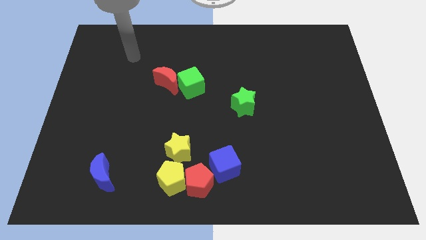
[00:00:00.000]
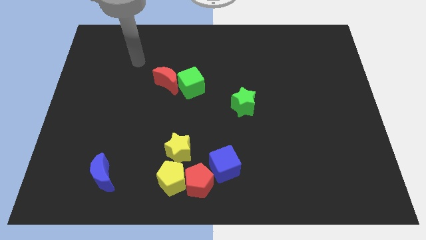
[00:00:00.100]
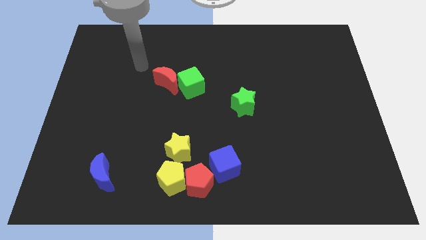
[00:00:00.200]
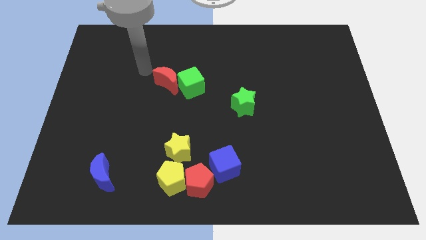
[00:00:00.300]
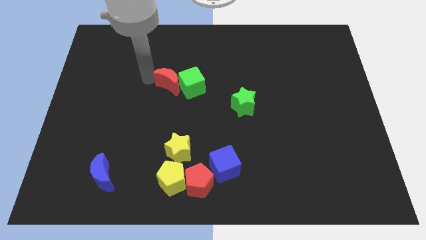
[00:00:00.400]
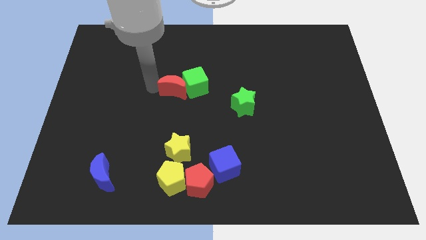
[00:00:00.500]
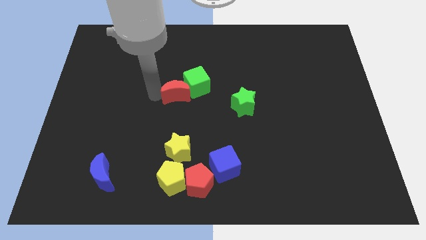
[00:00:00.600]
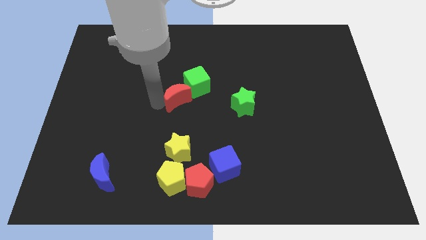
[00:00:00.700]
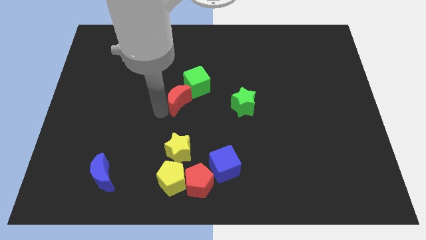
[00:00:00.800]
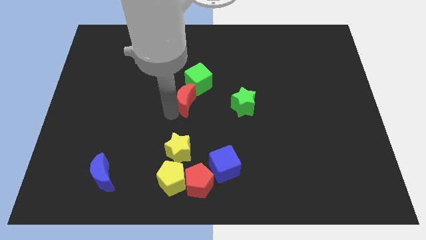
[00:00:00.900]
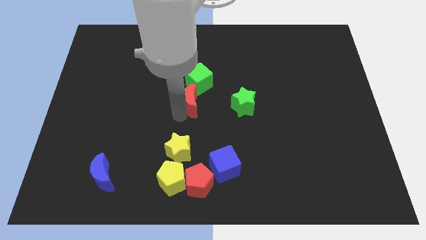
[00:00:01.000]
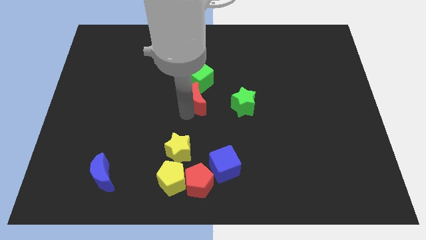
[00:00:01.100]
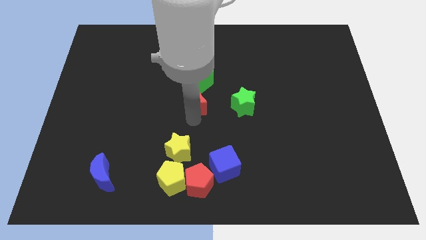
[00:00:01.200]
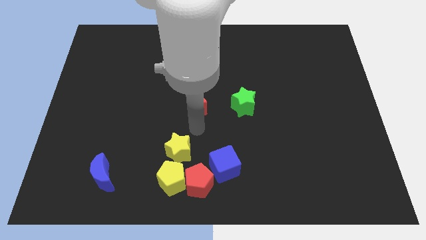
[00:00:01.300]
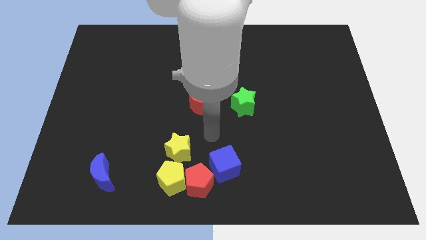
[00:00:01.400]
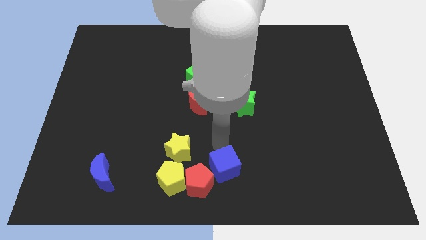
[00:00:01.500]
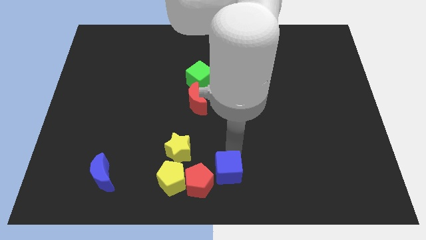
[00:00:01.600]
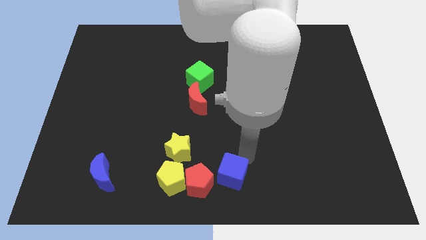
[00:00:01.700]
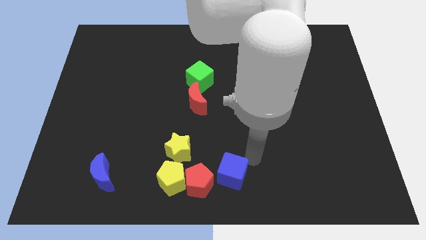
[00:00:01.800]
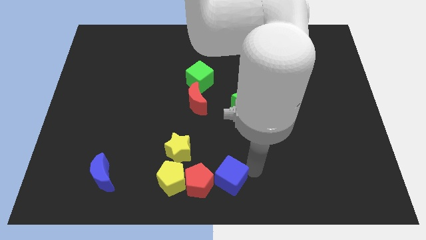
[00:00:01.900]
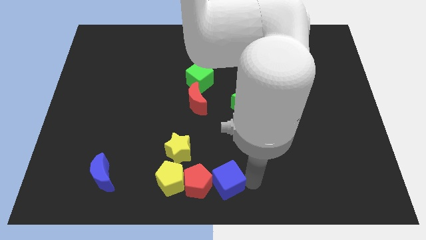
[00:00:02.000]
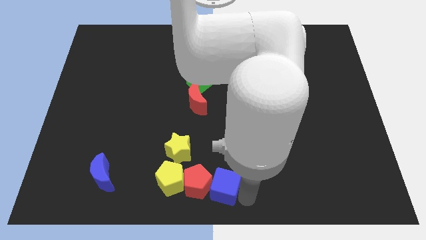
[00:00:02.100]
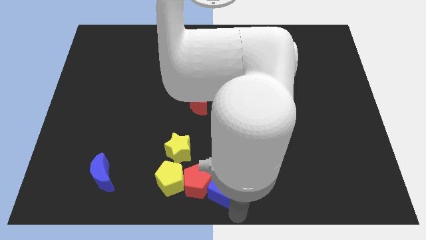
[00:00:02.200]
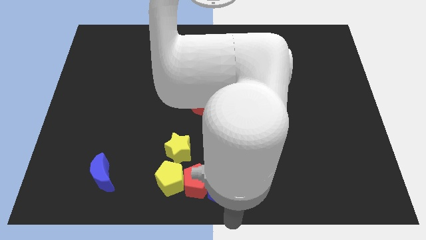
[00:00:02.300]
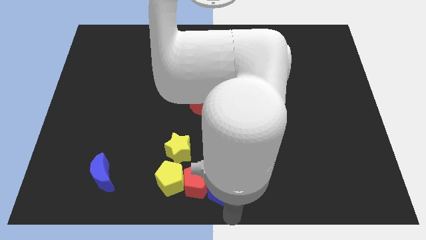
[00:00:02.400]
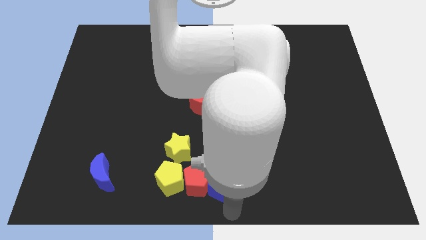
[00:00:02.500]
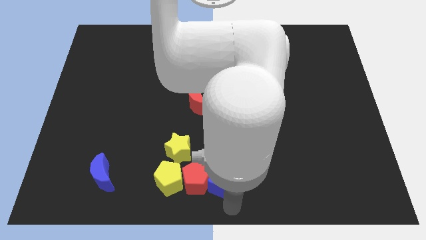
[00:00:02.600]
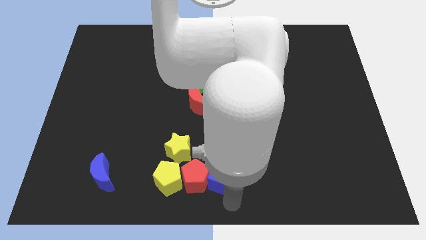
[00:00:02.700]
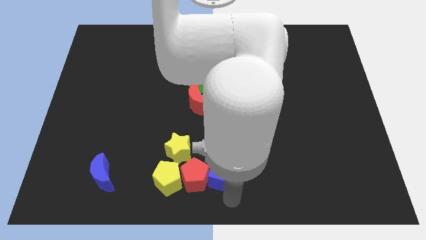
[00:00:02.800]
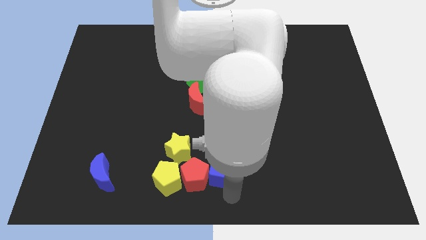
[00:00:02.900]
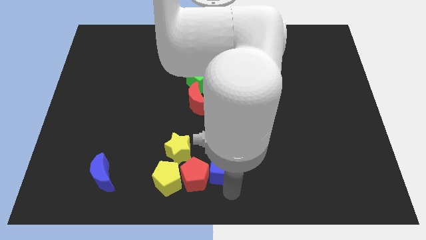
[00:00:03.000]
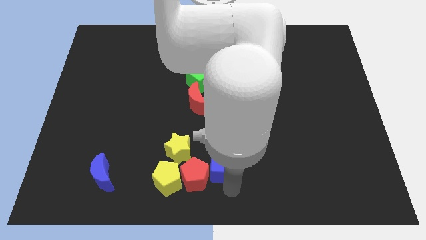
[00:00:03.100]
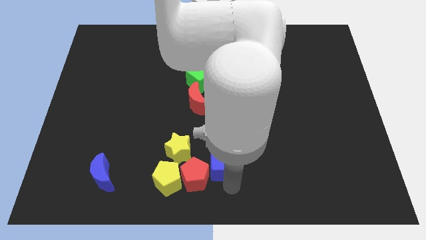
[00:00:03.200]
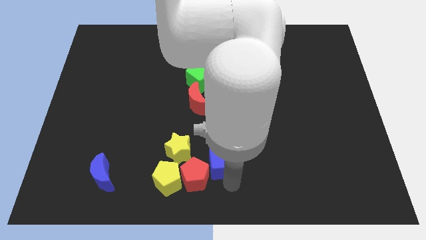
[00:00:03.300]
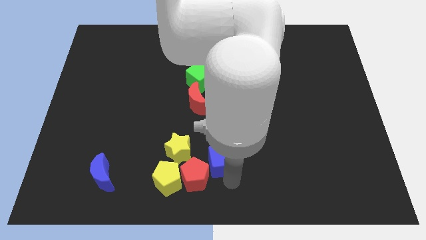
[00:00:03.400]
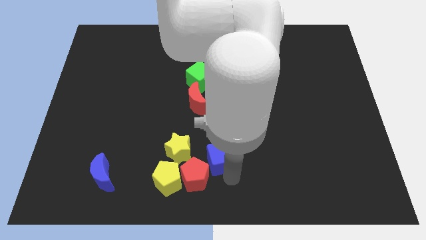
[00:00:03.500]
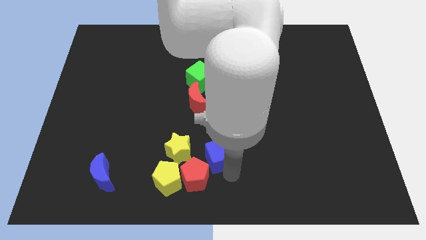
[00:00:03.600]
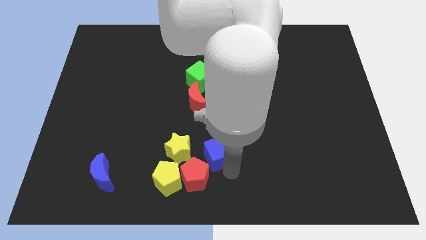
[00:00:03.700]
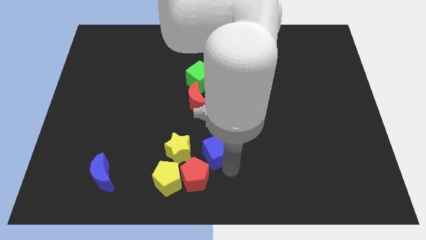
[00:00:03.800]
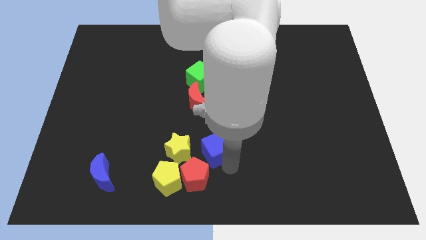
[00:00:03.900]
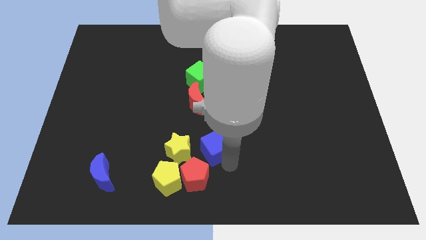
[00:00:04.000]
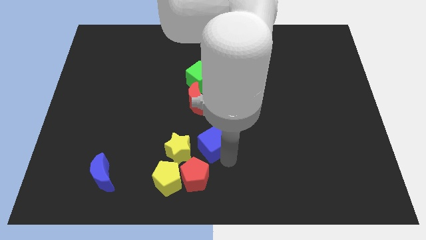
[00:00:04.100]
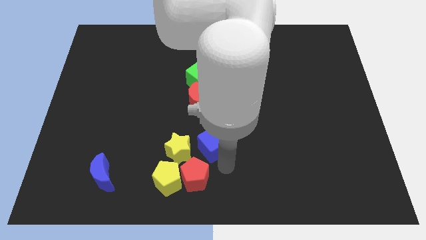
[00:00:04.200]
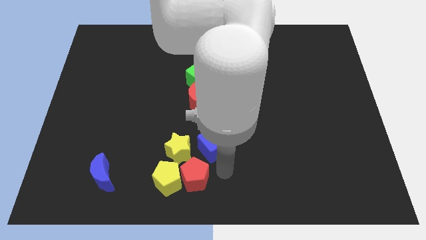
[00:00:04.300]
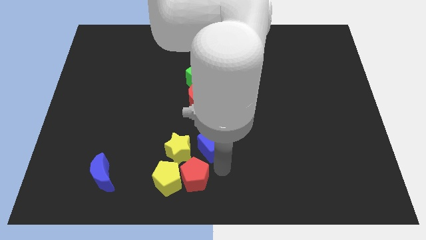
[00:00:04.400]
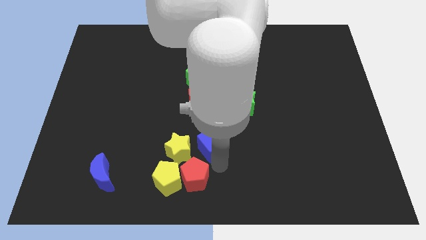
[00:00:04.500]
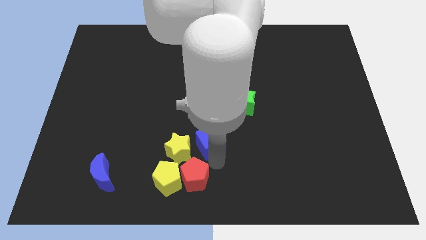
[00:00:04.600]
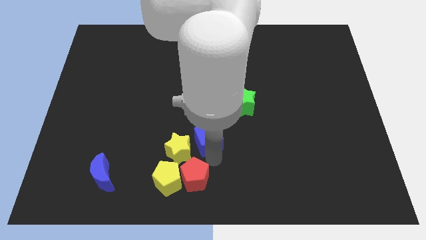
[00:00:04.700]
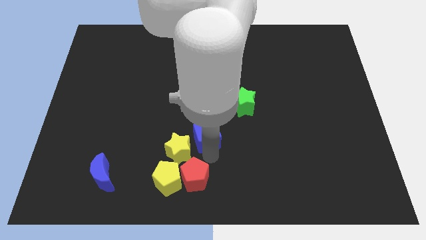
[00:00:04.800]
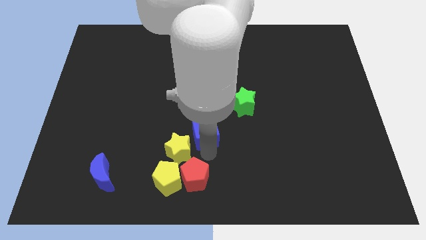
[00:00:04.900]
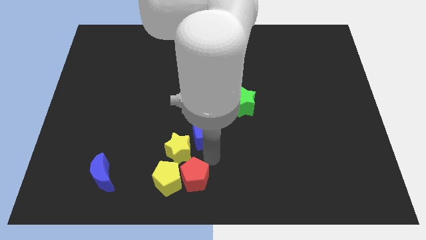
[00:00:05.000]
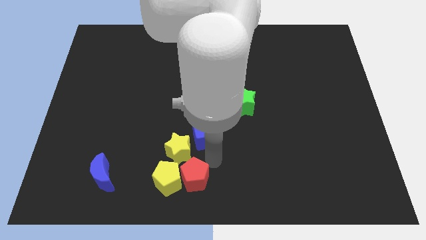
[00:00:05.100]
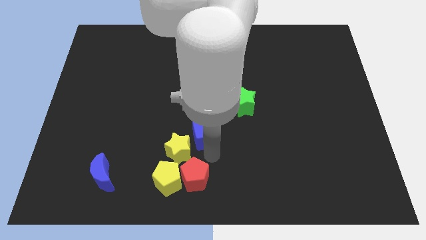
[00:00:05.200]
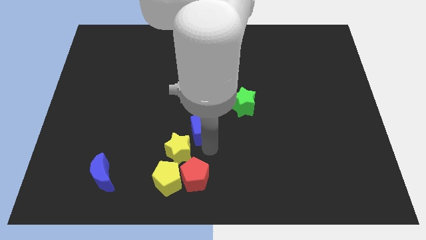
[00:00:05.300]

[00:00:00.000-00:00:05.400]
put the blue cube to the bottom of the green cube

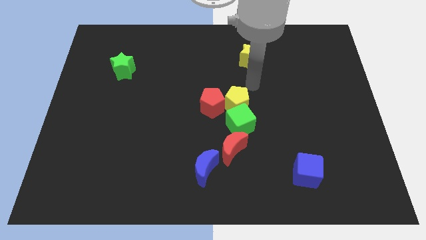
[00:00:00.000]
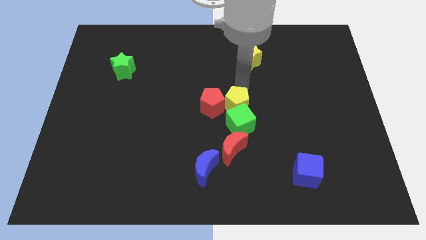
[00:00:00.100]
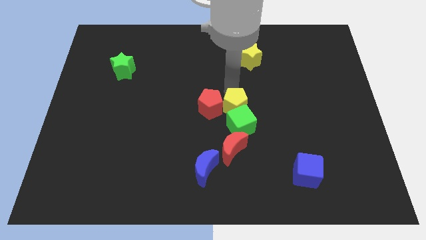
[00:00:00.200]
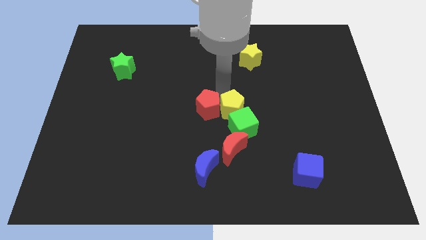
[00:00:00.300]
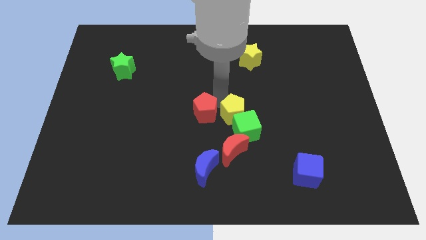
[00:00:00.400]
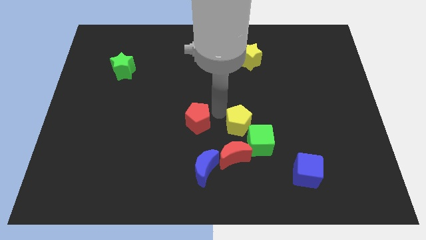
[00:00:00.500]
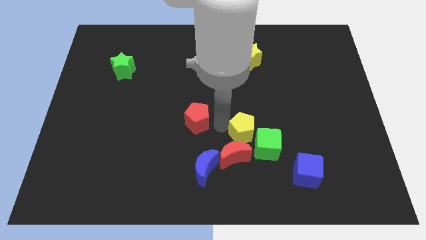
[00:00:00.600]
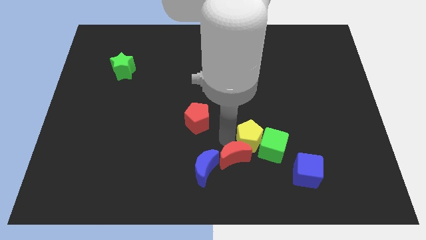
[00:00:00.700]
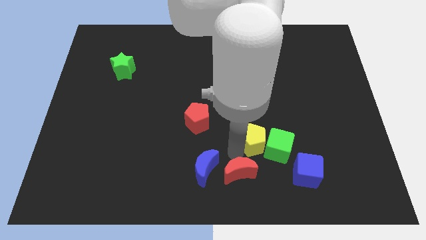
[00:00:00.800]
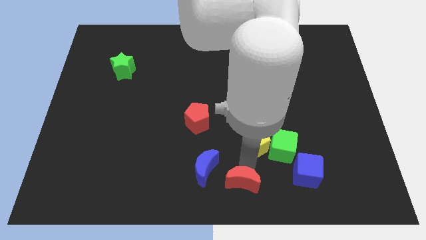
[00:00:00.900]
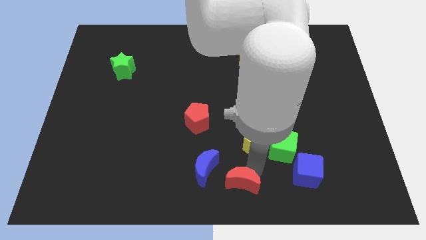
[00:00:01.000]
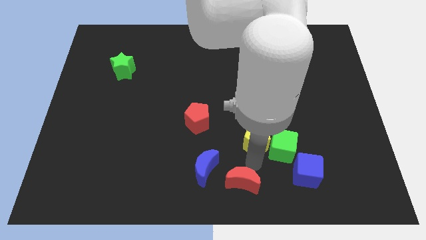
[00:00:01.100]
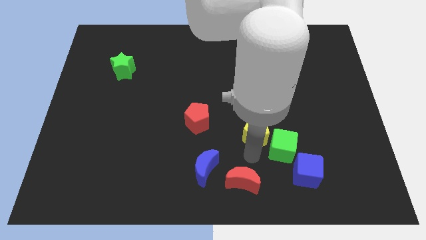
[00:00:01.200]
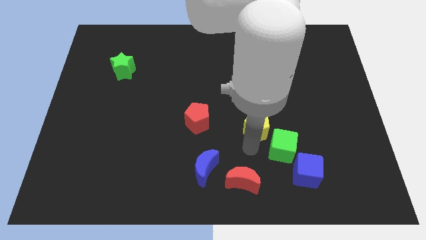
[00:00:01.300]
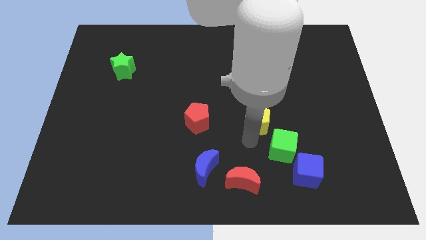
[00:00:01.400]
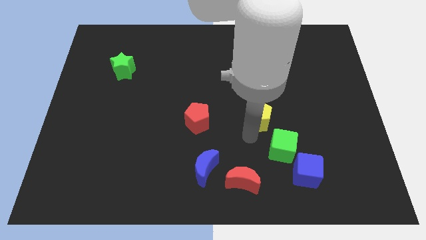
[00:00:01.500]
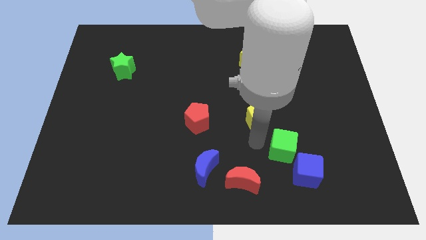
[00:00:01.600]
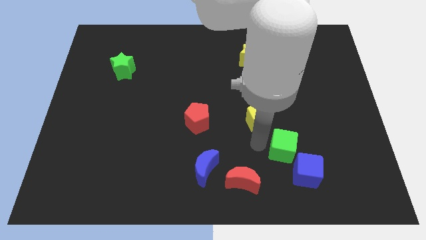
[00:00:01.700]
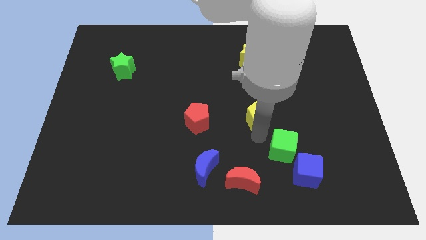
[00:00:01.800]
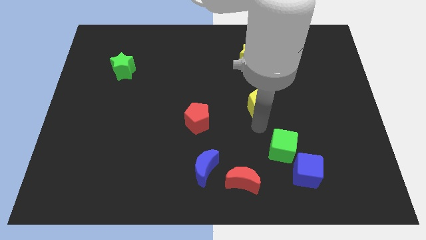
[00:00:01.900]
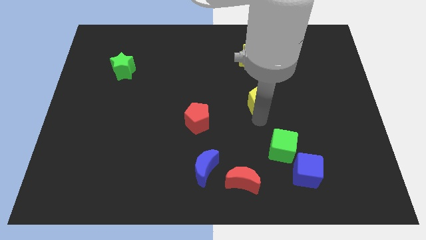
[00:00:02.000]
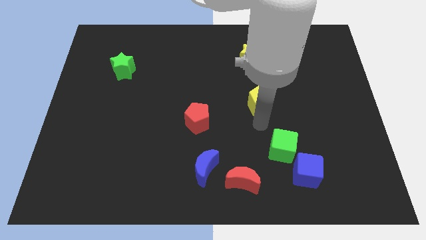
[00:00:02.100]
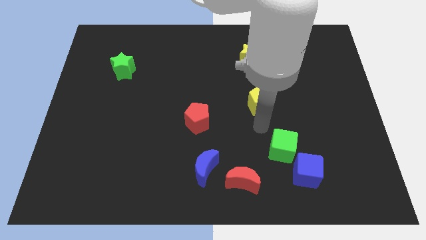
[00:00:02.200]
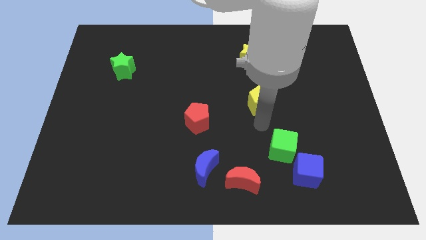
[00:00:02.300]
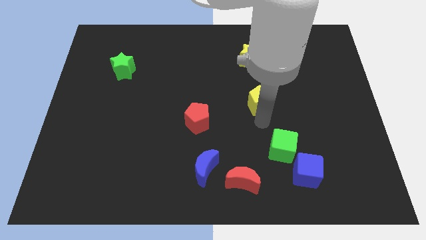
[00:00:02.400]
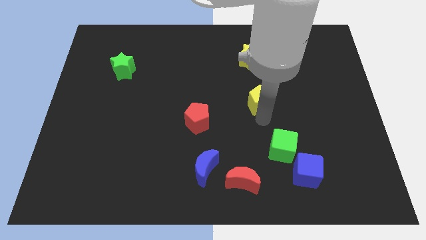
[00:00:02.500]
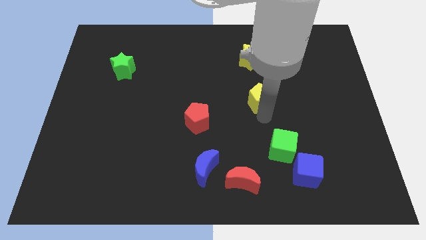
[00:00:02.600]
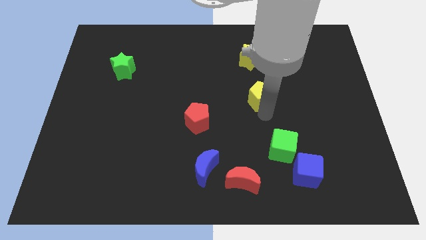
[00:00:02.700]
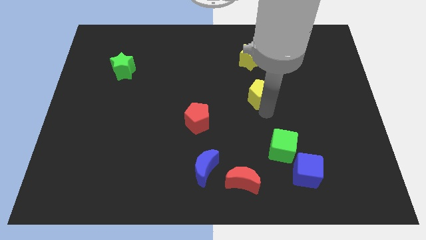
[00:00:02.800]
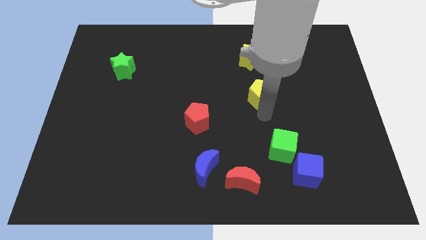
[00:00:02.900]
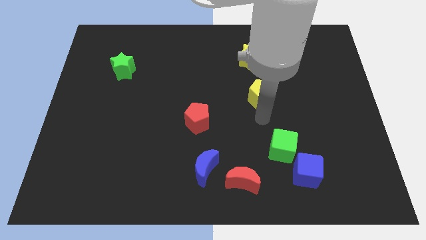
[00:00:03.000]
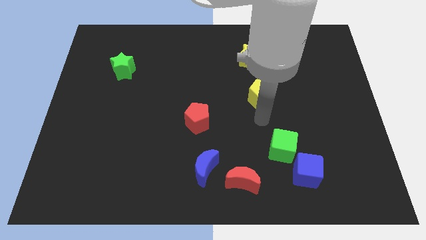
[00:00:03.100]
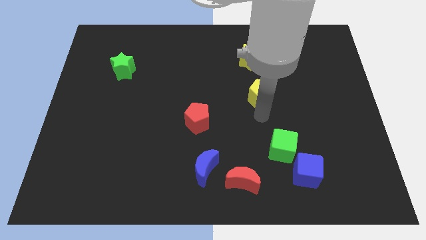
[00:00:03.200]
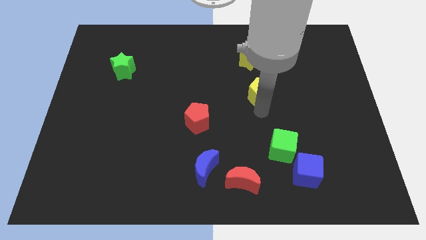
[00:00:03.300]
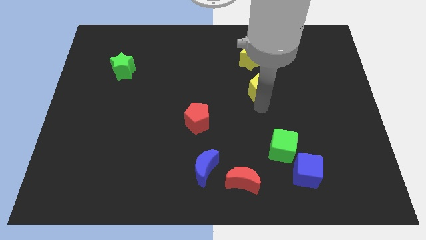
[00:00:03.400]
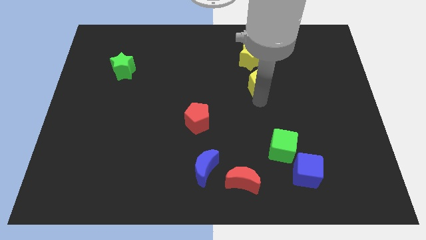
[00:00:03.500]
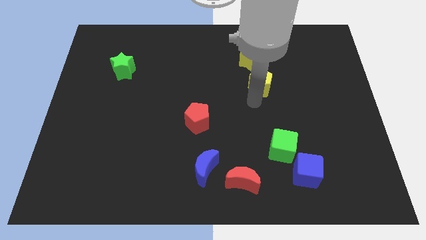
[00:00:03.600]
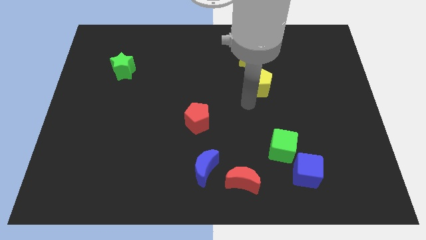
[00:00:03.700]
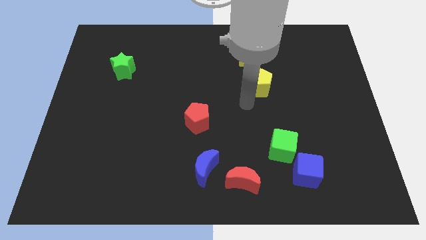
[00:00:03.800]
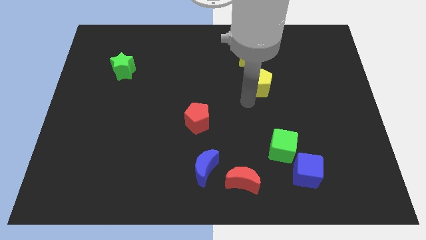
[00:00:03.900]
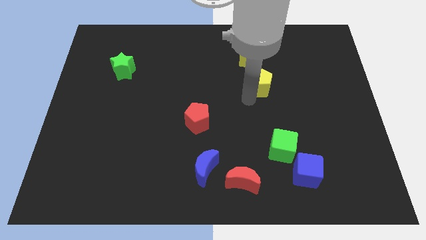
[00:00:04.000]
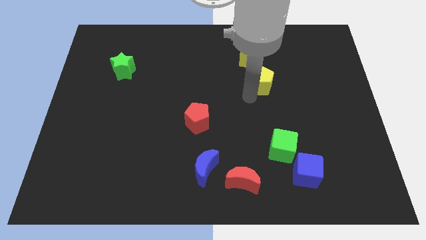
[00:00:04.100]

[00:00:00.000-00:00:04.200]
push the yellow pentagon to the bottom right side of the yellow star
